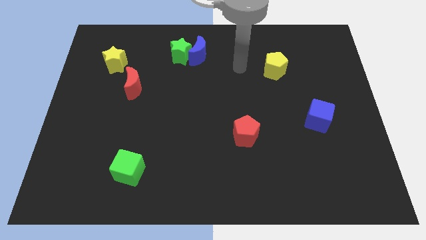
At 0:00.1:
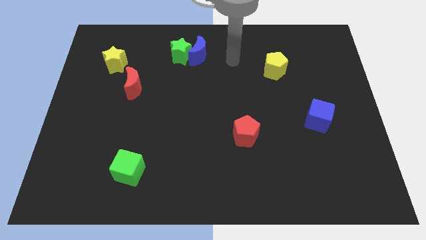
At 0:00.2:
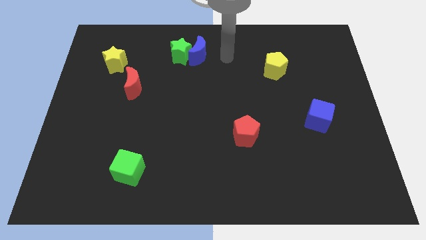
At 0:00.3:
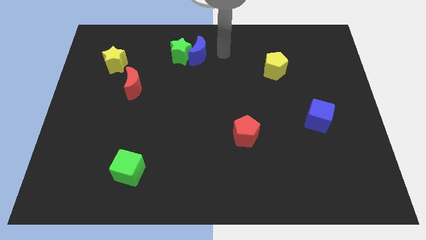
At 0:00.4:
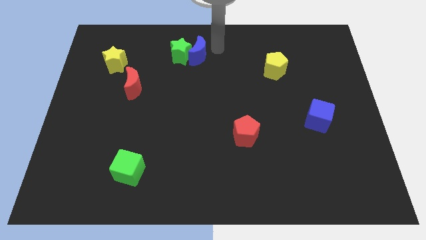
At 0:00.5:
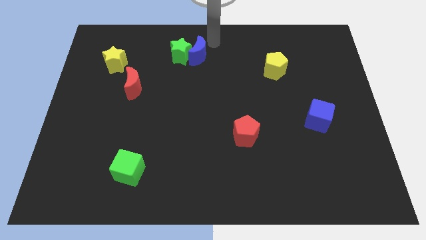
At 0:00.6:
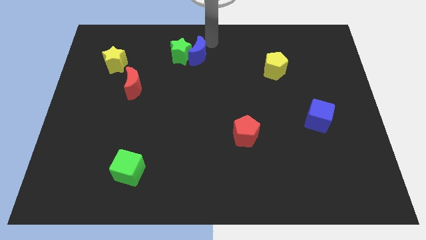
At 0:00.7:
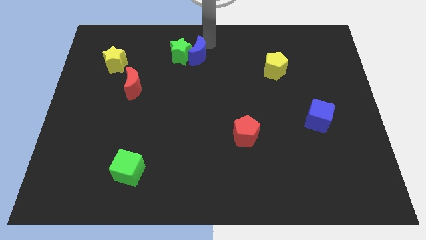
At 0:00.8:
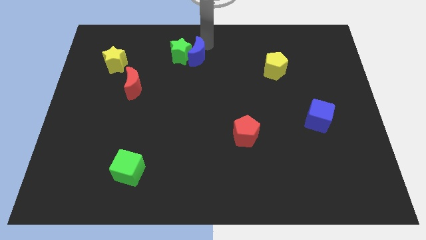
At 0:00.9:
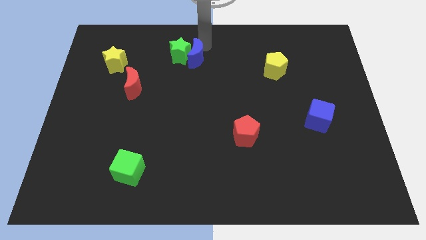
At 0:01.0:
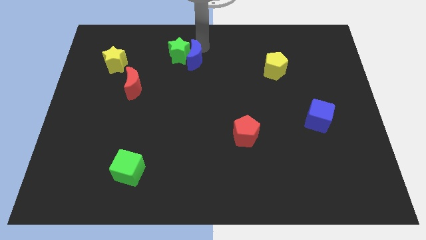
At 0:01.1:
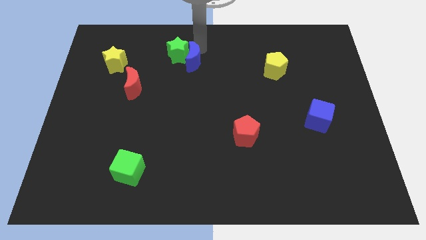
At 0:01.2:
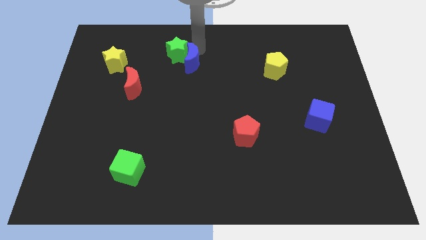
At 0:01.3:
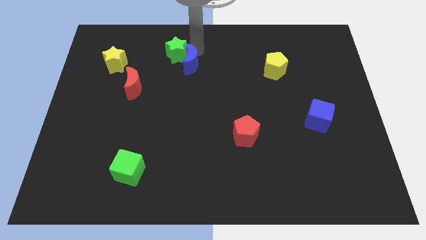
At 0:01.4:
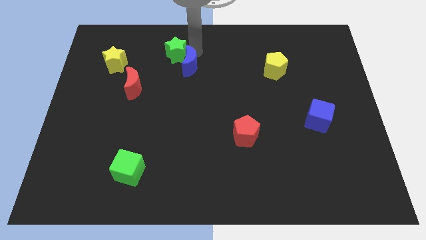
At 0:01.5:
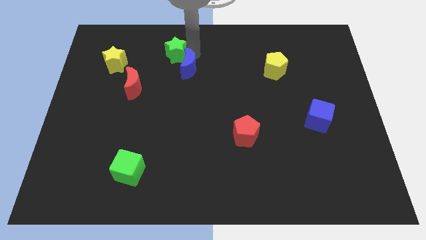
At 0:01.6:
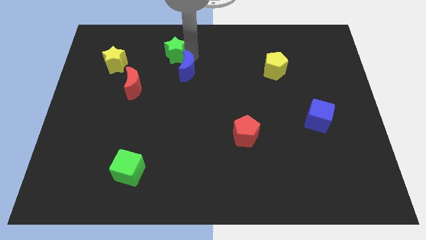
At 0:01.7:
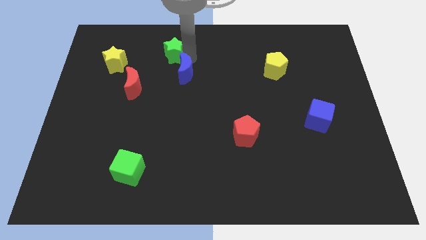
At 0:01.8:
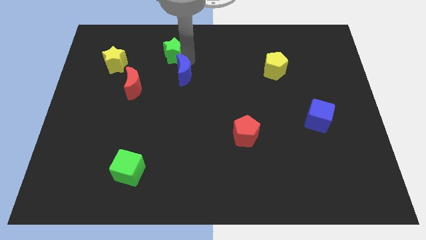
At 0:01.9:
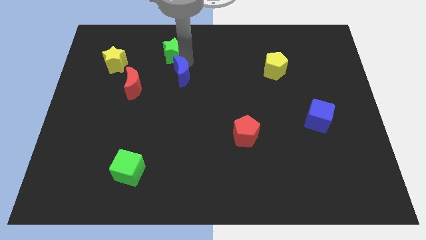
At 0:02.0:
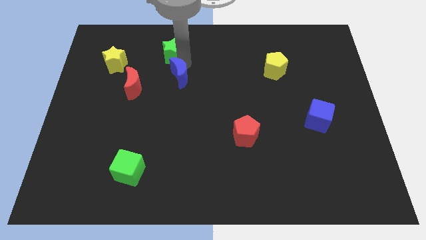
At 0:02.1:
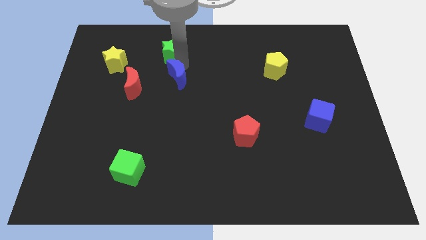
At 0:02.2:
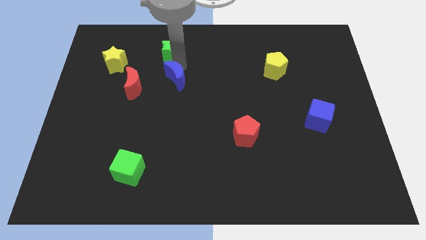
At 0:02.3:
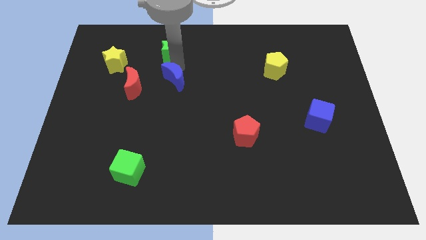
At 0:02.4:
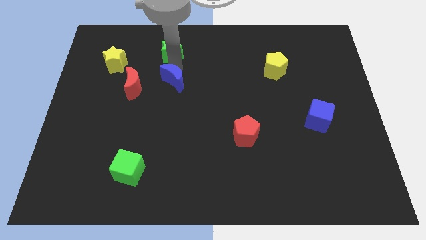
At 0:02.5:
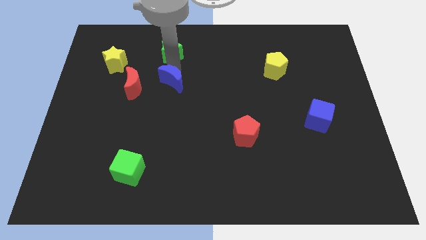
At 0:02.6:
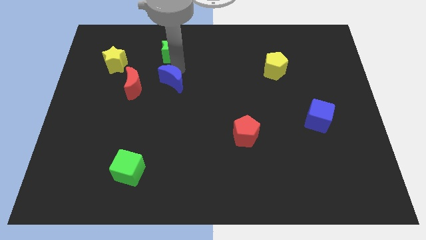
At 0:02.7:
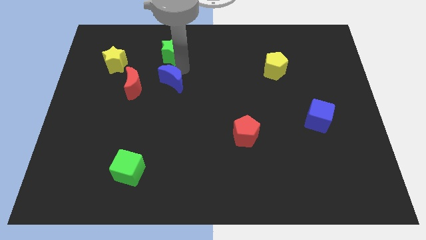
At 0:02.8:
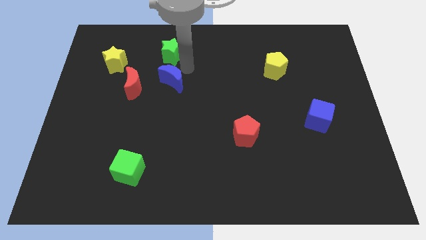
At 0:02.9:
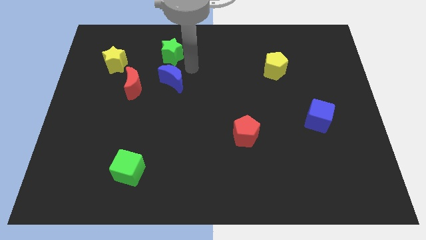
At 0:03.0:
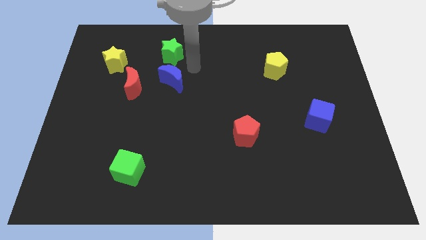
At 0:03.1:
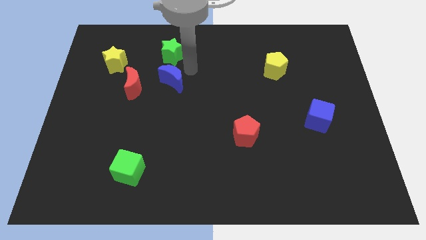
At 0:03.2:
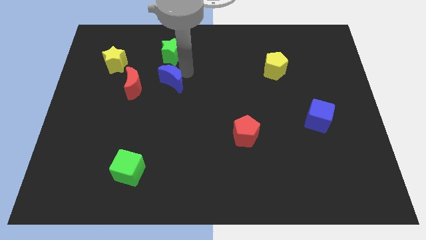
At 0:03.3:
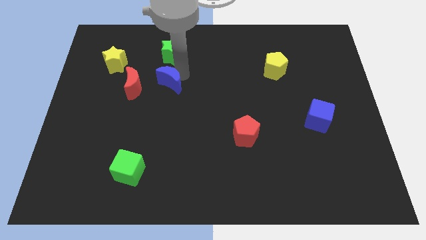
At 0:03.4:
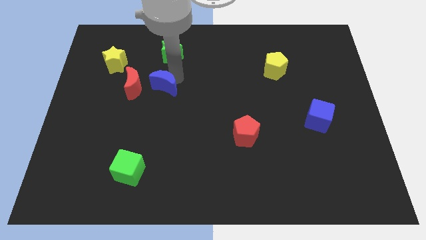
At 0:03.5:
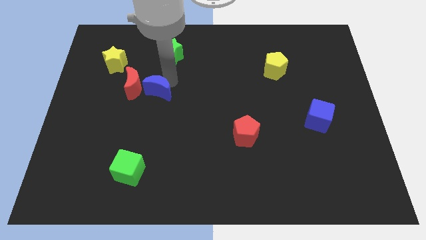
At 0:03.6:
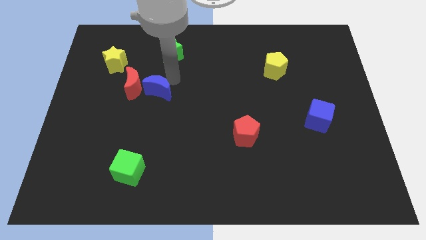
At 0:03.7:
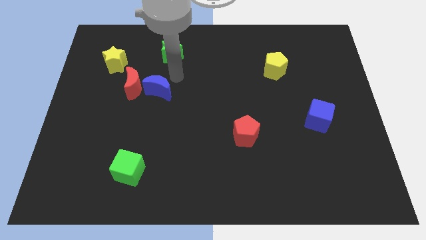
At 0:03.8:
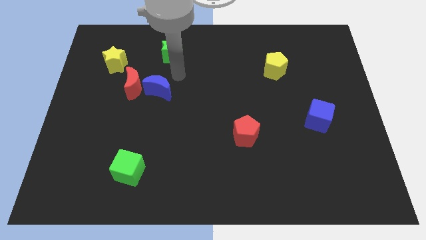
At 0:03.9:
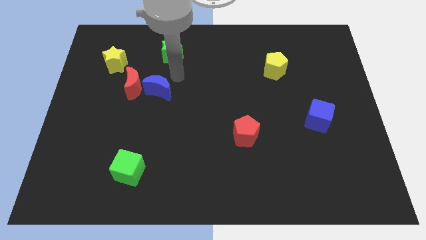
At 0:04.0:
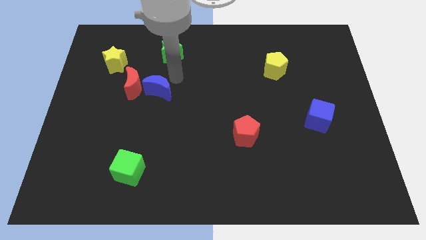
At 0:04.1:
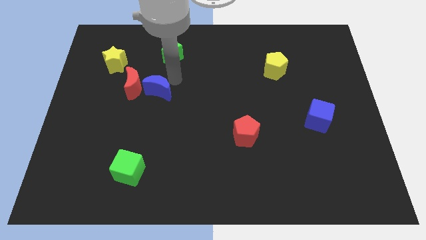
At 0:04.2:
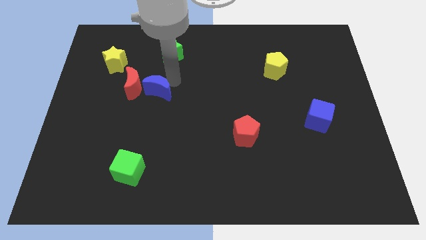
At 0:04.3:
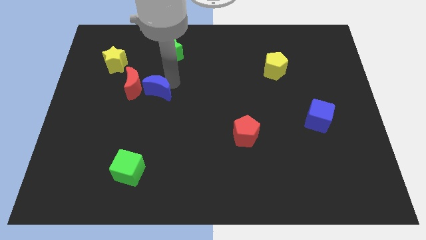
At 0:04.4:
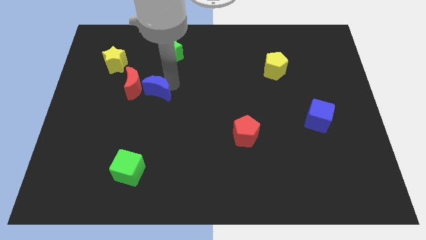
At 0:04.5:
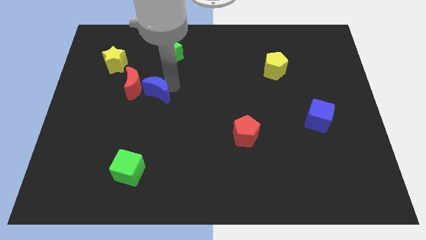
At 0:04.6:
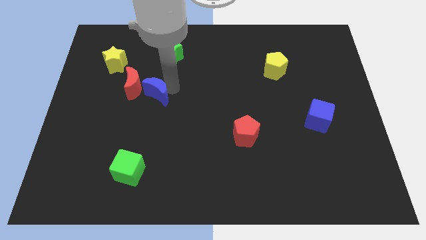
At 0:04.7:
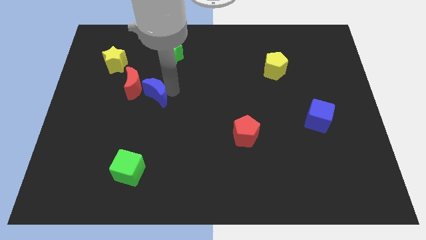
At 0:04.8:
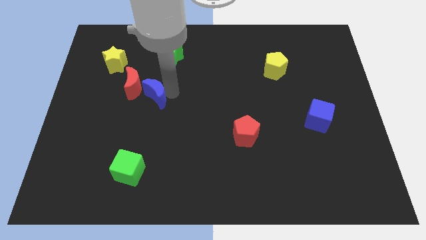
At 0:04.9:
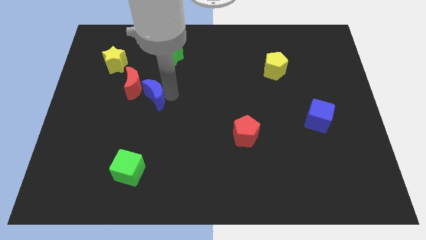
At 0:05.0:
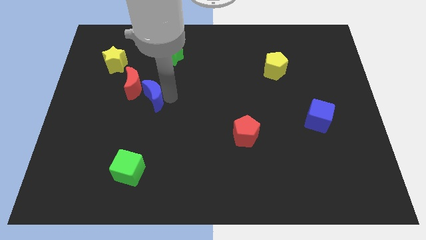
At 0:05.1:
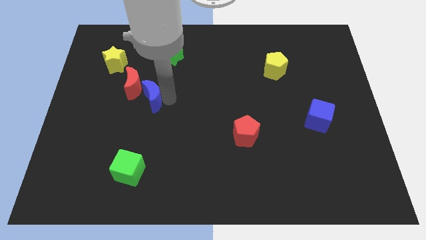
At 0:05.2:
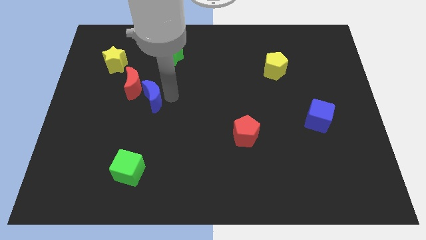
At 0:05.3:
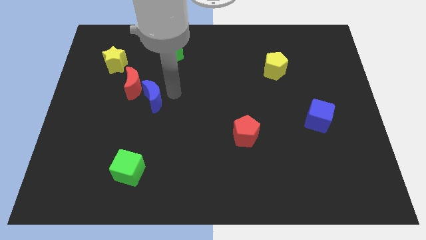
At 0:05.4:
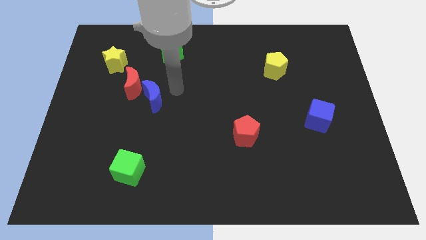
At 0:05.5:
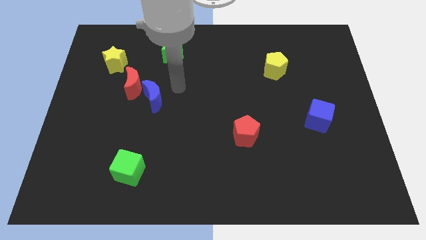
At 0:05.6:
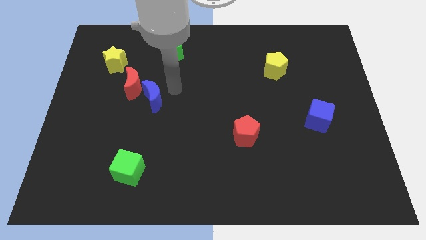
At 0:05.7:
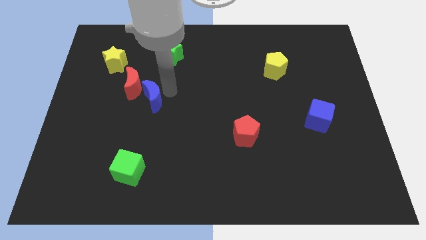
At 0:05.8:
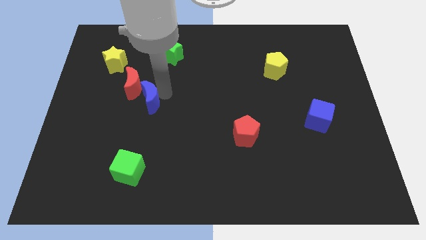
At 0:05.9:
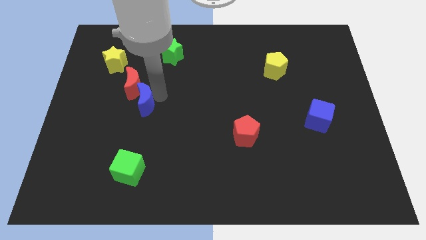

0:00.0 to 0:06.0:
push the blue moon down and left diagonally

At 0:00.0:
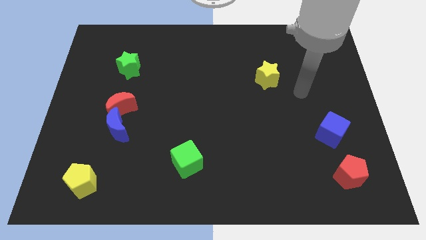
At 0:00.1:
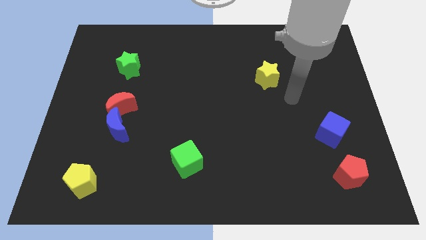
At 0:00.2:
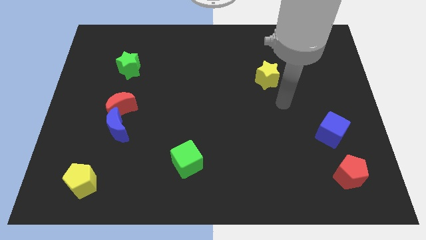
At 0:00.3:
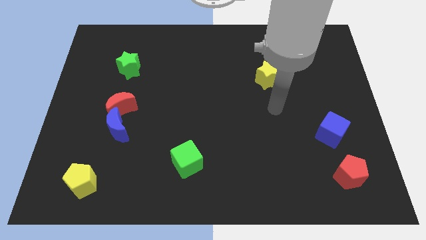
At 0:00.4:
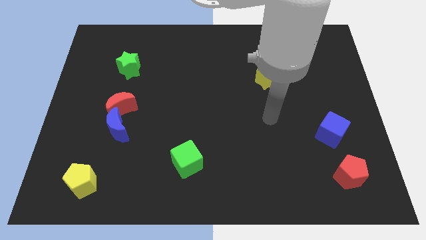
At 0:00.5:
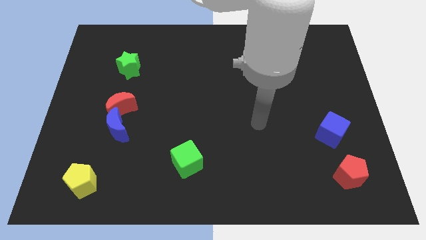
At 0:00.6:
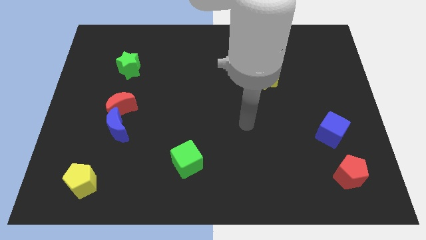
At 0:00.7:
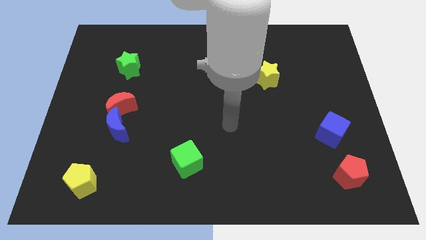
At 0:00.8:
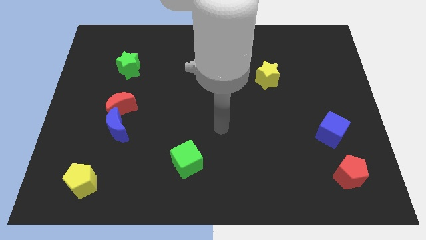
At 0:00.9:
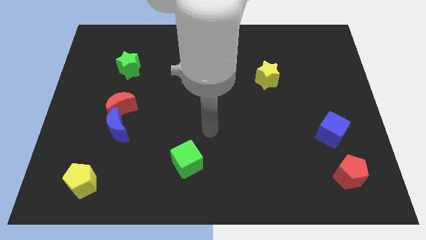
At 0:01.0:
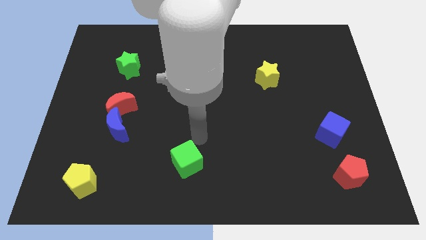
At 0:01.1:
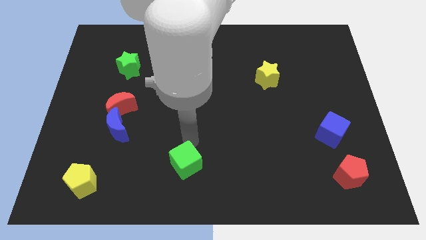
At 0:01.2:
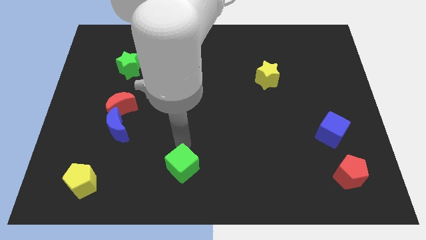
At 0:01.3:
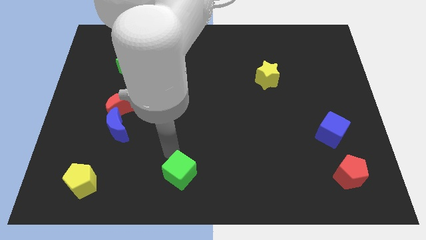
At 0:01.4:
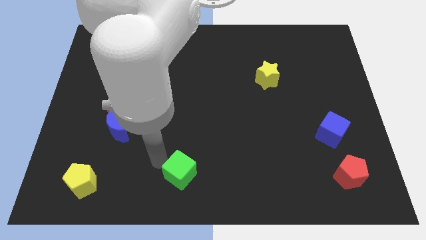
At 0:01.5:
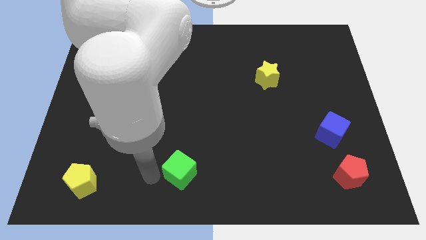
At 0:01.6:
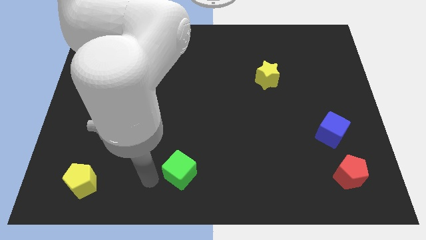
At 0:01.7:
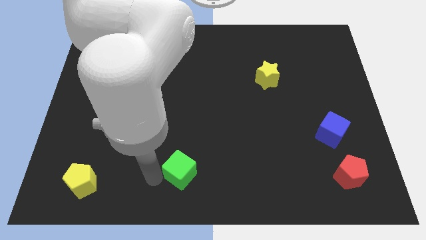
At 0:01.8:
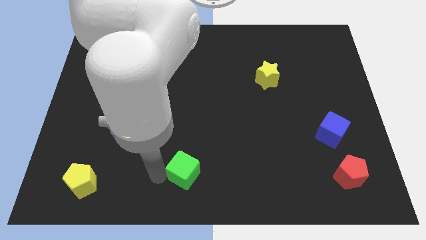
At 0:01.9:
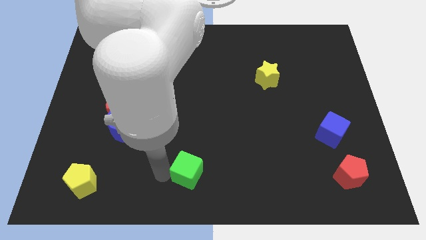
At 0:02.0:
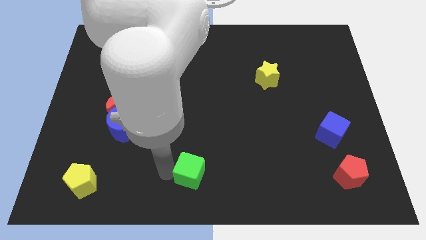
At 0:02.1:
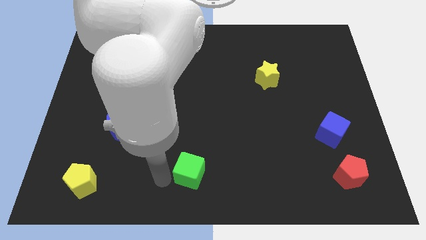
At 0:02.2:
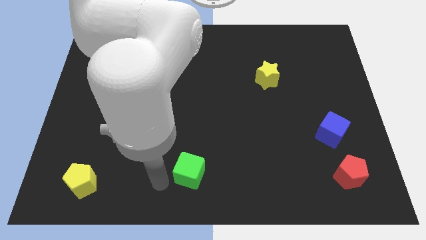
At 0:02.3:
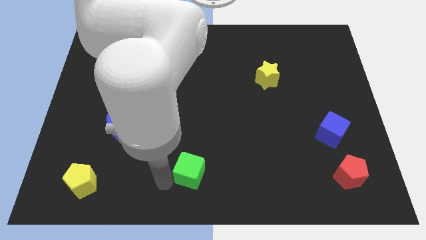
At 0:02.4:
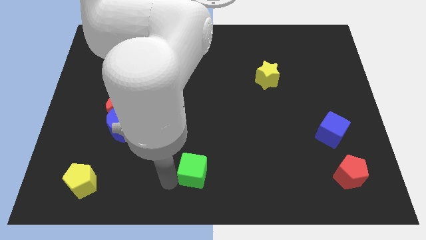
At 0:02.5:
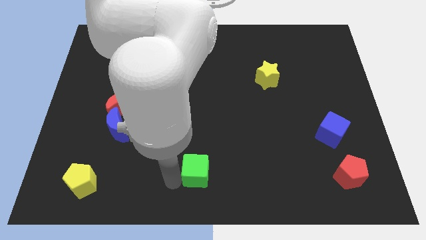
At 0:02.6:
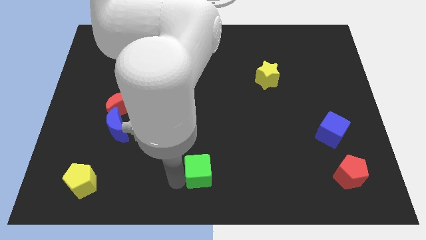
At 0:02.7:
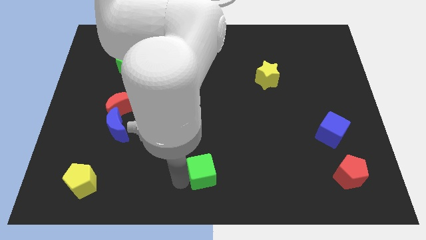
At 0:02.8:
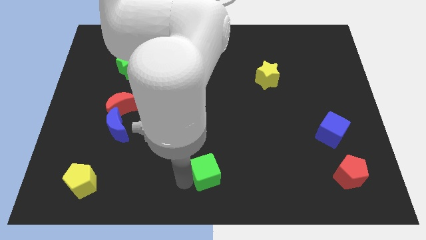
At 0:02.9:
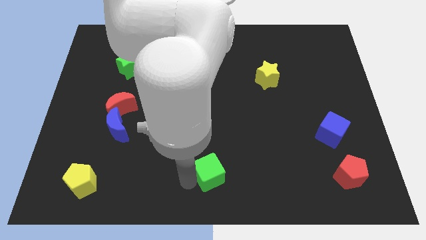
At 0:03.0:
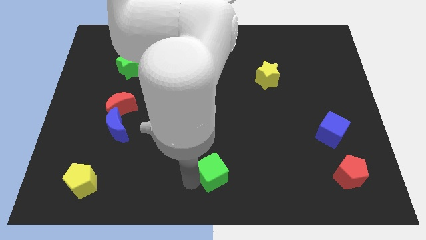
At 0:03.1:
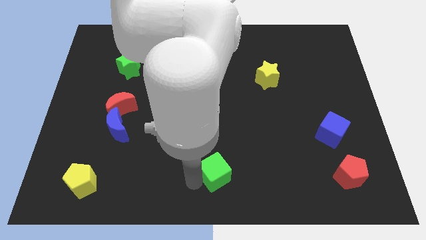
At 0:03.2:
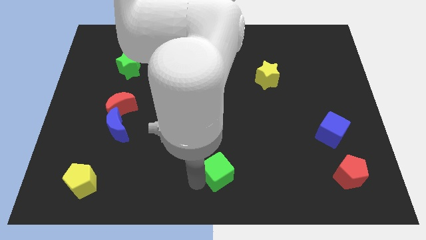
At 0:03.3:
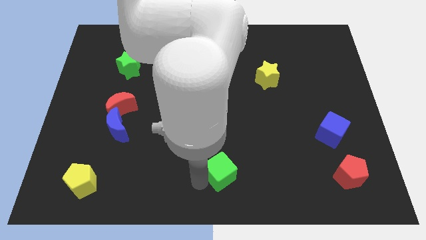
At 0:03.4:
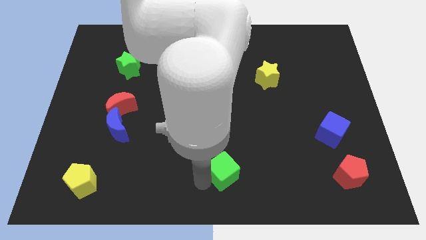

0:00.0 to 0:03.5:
slightly move the green cube to the right
